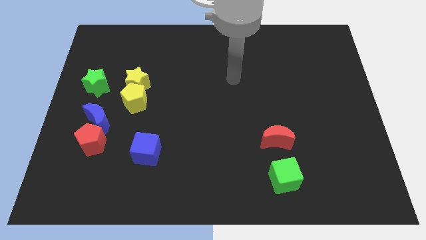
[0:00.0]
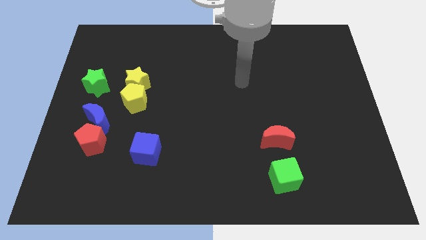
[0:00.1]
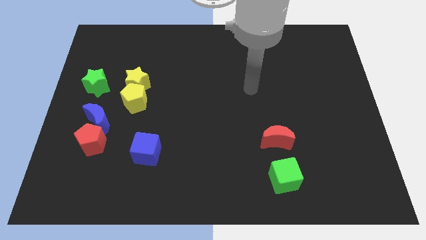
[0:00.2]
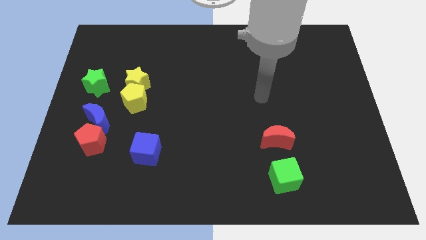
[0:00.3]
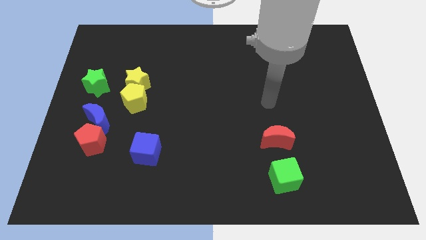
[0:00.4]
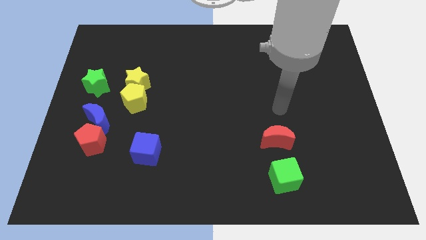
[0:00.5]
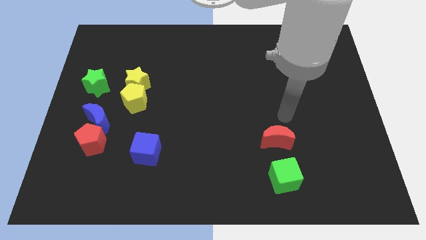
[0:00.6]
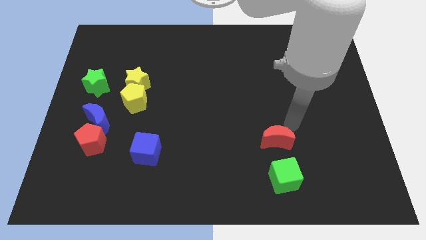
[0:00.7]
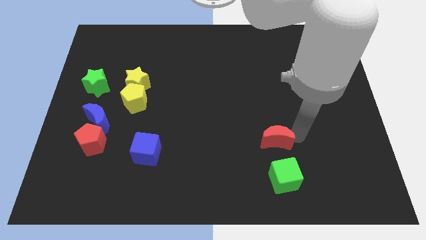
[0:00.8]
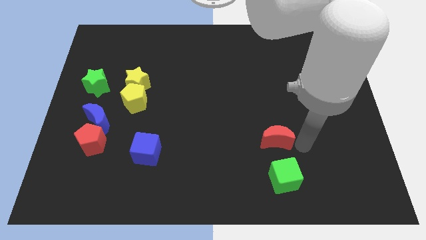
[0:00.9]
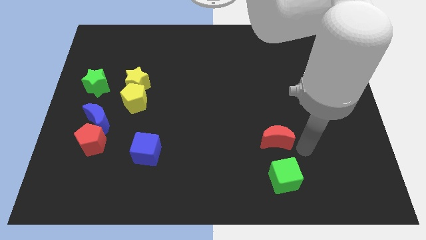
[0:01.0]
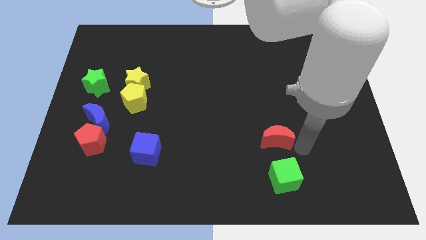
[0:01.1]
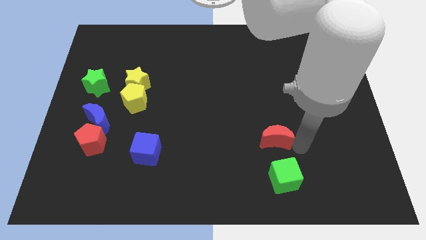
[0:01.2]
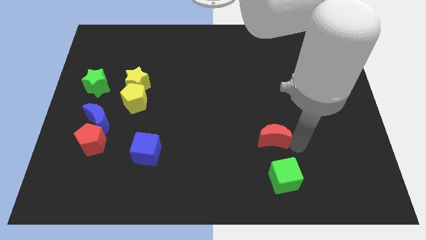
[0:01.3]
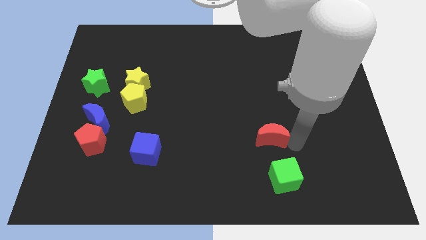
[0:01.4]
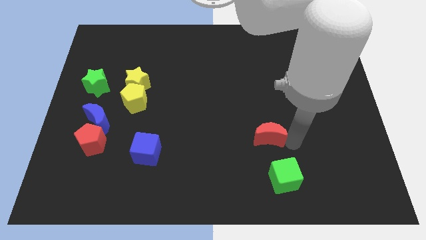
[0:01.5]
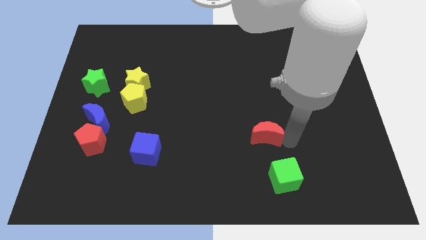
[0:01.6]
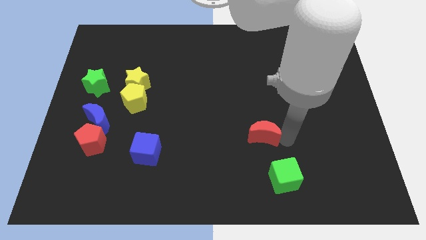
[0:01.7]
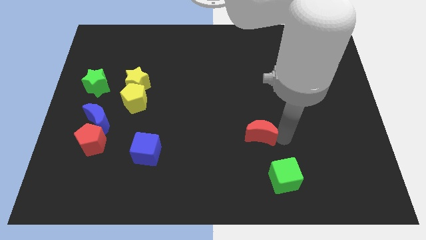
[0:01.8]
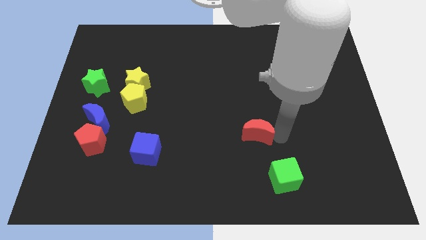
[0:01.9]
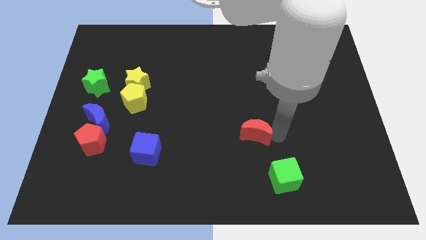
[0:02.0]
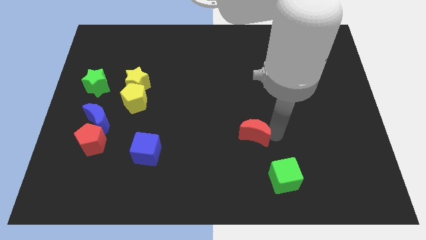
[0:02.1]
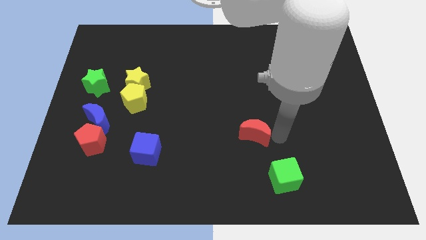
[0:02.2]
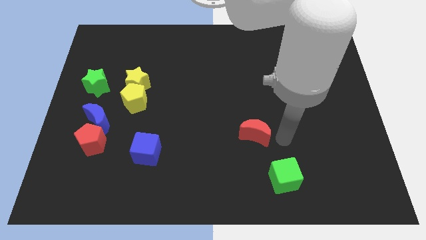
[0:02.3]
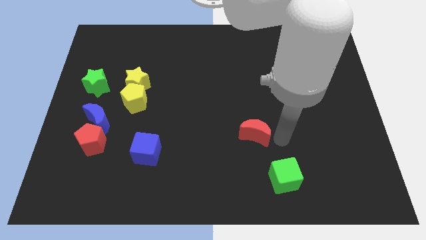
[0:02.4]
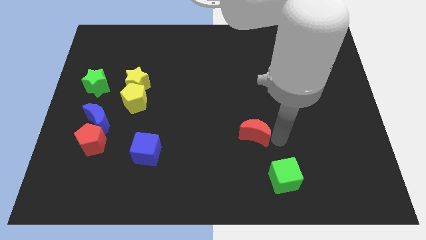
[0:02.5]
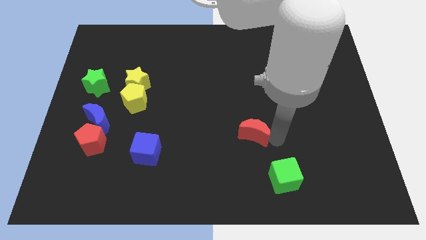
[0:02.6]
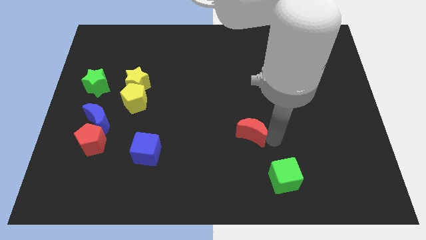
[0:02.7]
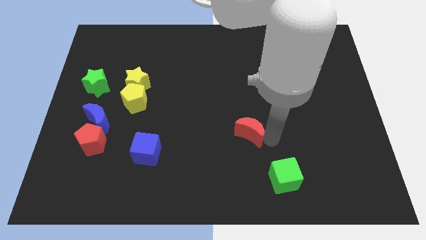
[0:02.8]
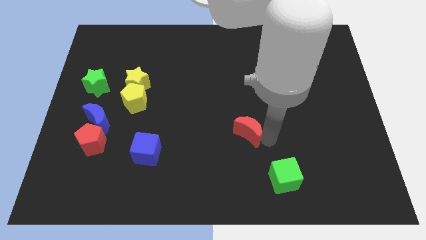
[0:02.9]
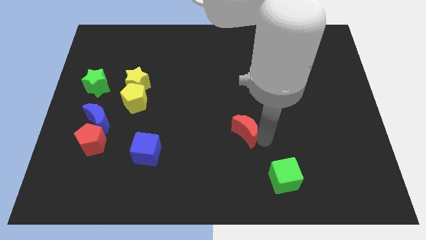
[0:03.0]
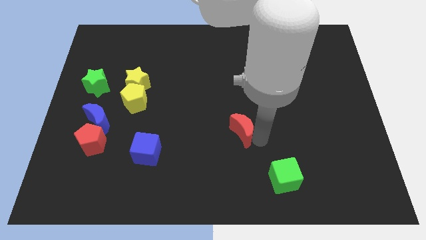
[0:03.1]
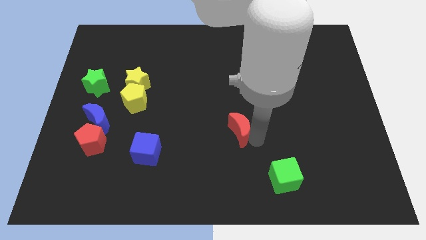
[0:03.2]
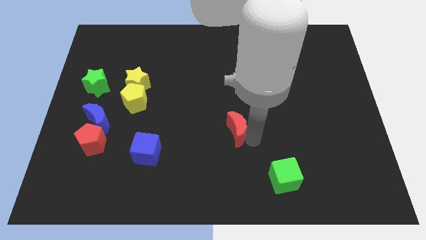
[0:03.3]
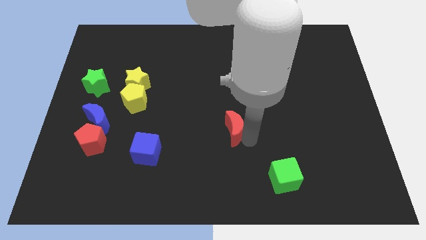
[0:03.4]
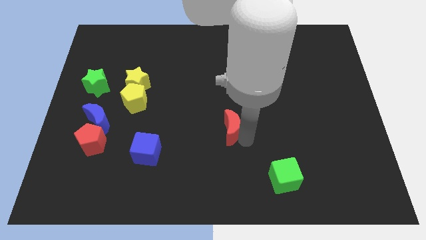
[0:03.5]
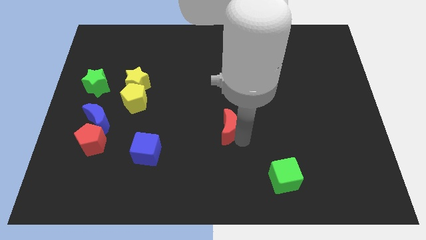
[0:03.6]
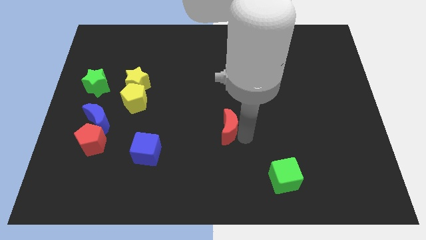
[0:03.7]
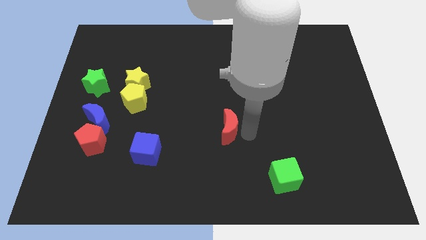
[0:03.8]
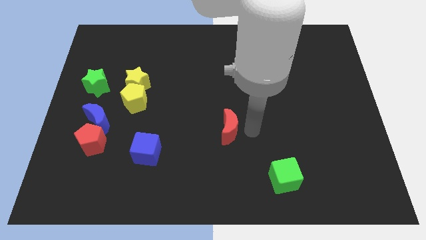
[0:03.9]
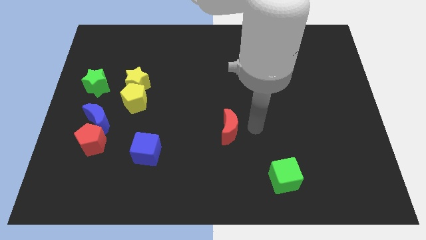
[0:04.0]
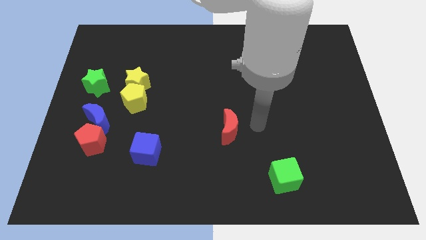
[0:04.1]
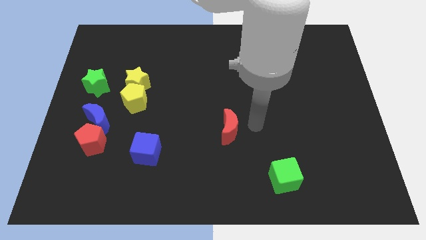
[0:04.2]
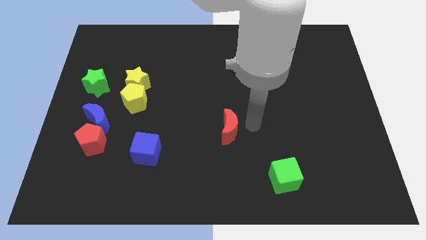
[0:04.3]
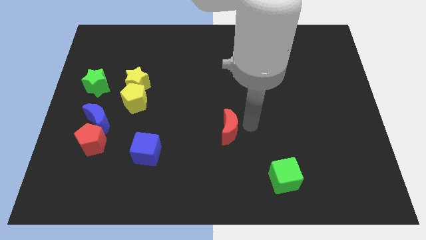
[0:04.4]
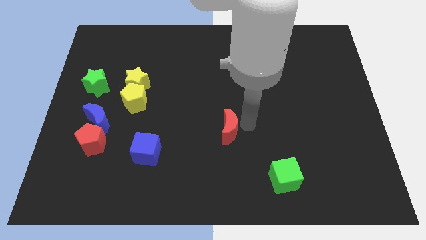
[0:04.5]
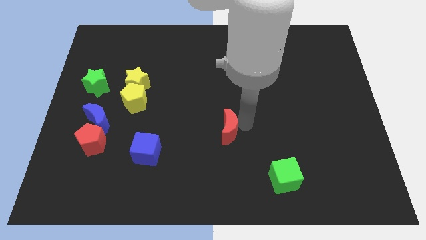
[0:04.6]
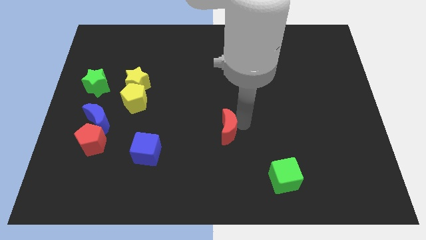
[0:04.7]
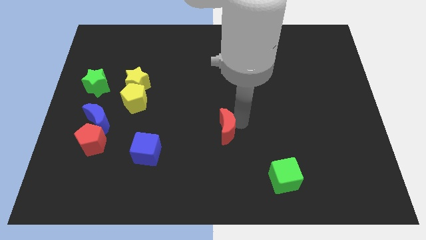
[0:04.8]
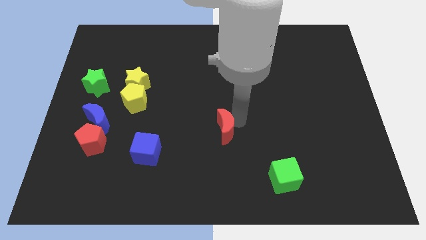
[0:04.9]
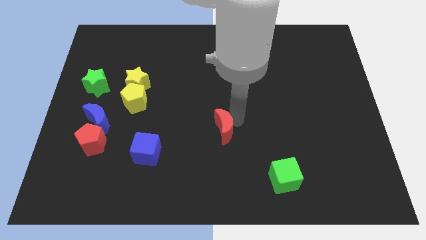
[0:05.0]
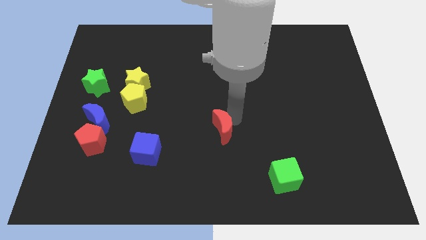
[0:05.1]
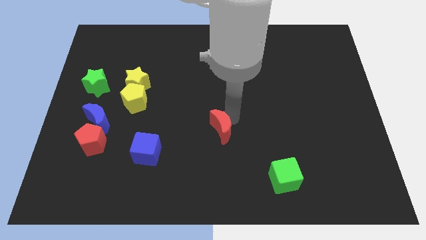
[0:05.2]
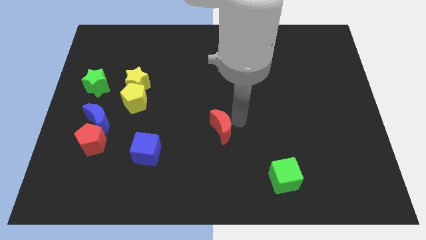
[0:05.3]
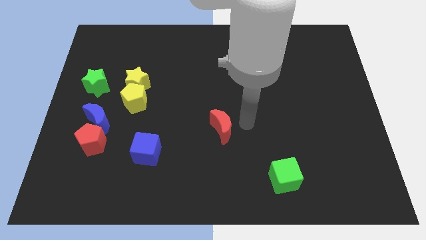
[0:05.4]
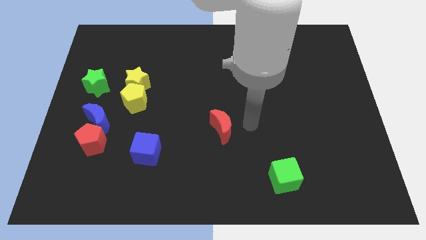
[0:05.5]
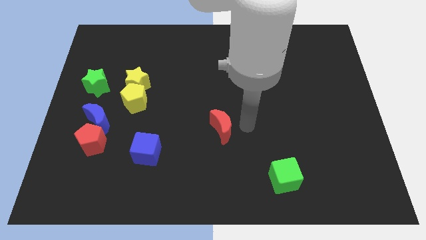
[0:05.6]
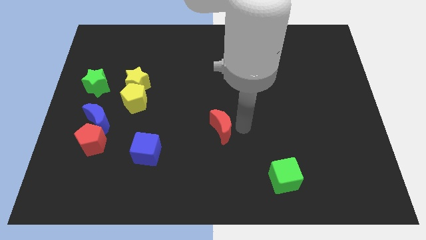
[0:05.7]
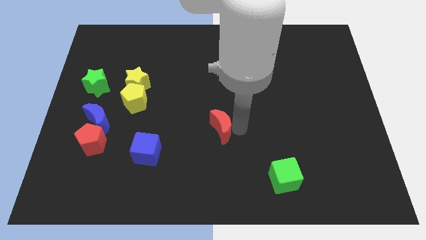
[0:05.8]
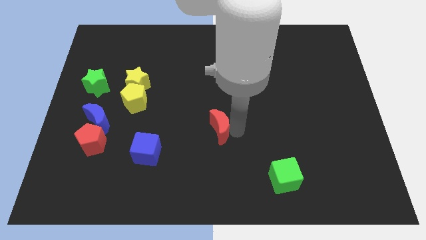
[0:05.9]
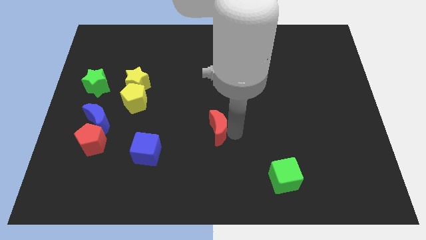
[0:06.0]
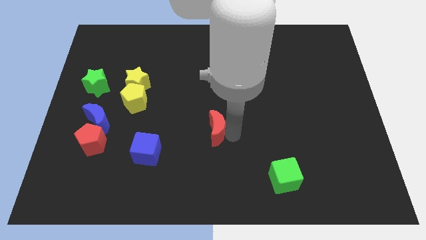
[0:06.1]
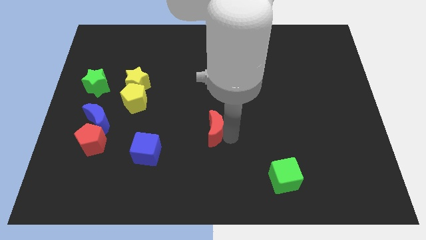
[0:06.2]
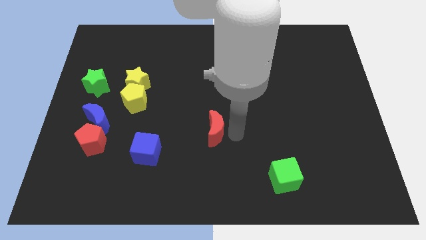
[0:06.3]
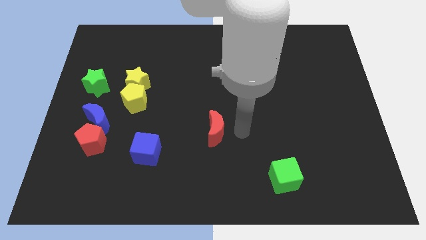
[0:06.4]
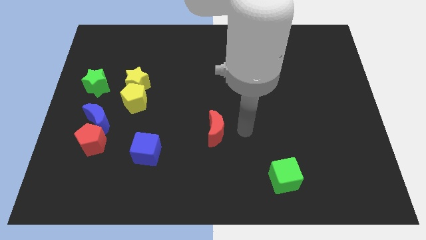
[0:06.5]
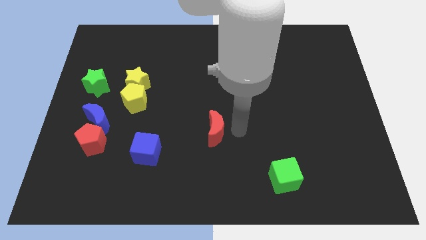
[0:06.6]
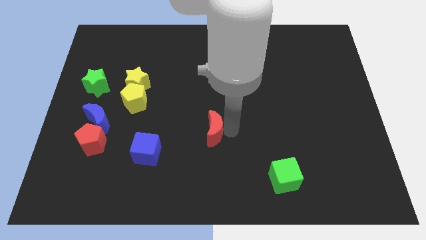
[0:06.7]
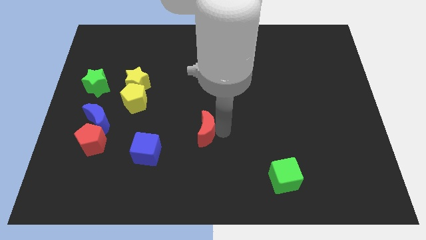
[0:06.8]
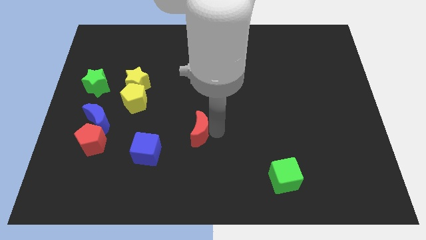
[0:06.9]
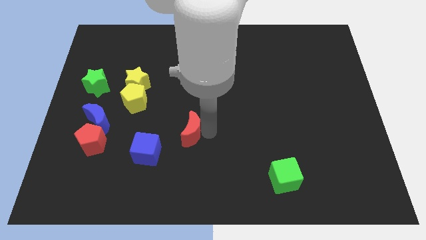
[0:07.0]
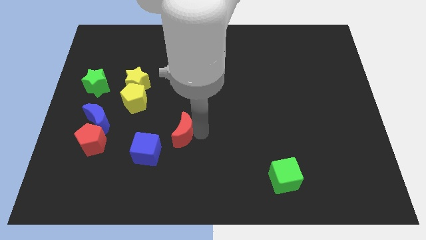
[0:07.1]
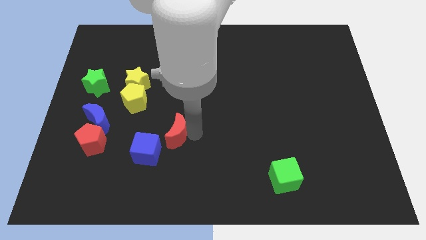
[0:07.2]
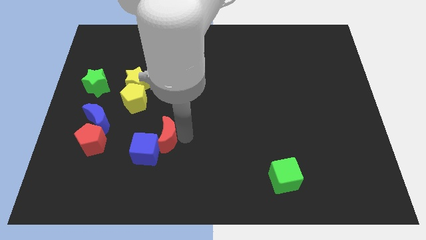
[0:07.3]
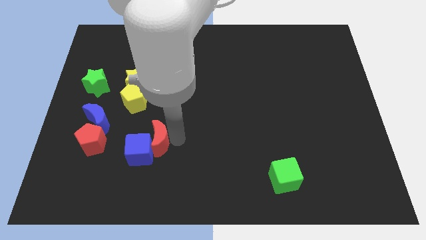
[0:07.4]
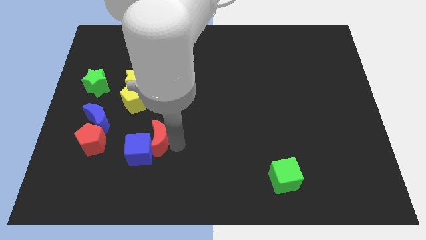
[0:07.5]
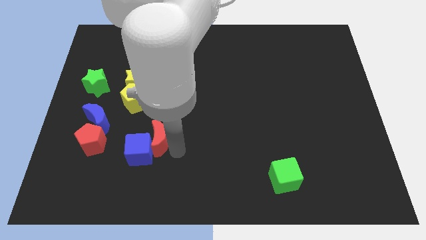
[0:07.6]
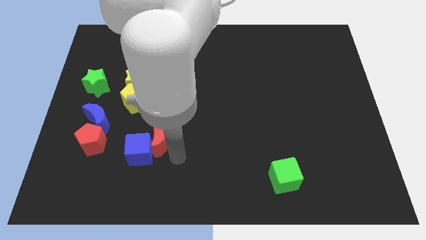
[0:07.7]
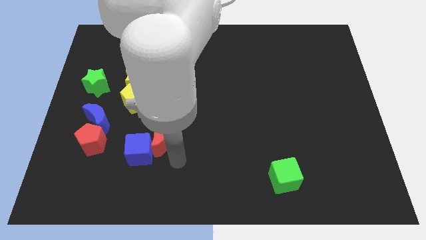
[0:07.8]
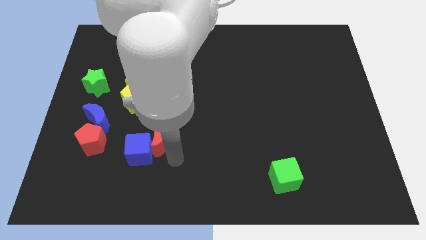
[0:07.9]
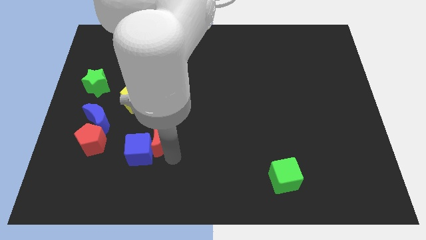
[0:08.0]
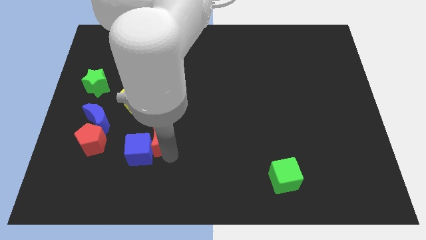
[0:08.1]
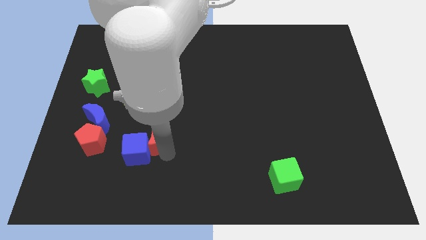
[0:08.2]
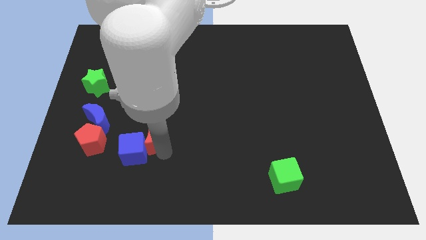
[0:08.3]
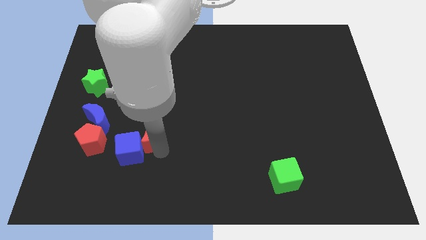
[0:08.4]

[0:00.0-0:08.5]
move the red moon just right of the blue moon
